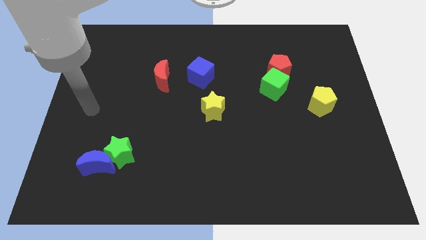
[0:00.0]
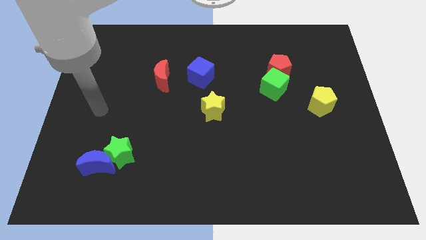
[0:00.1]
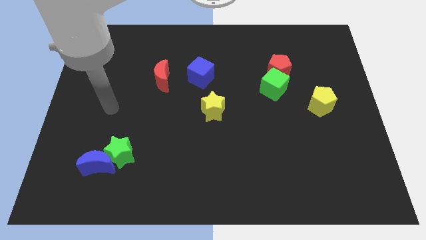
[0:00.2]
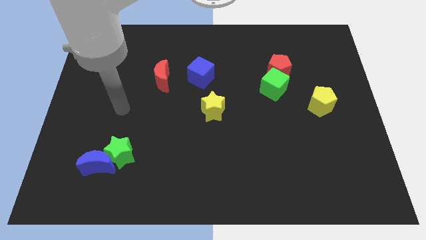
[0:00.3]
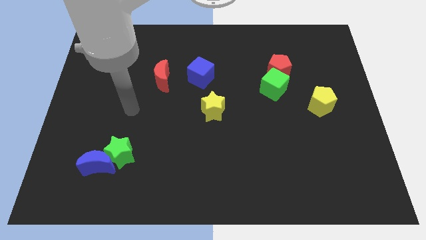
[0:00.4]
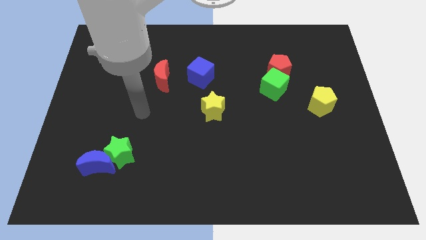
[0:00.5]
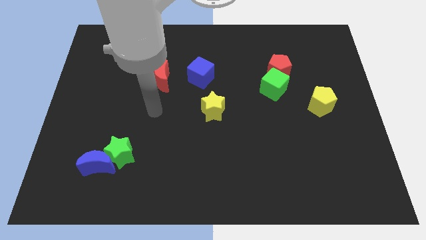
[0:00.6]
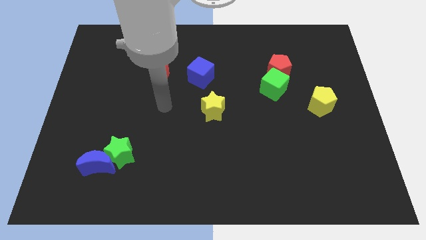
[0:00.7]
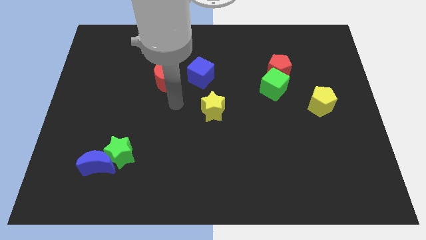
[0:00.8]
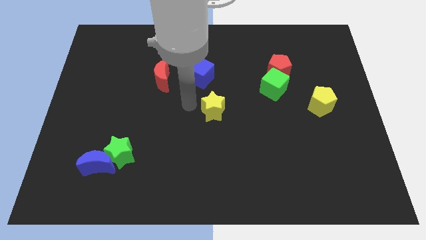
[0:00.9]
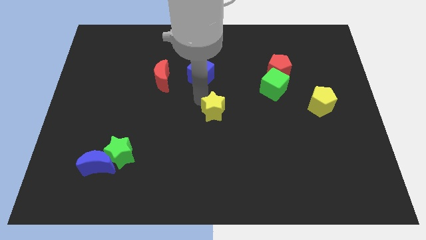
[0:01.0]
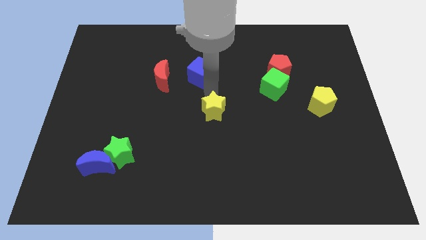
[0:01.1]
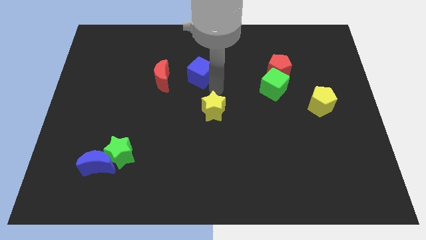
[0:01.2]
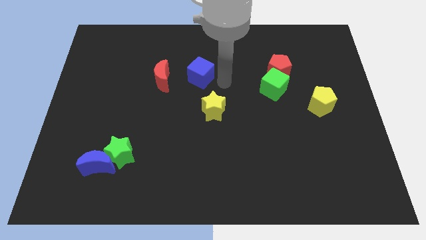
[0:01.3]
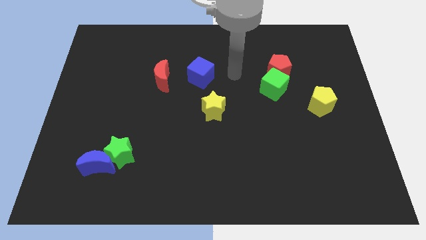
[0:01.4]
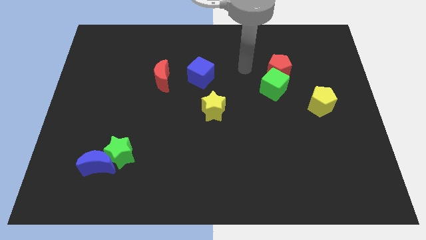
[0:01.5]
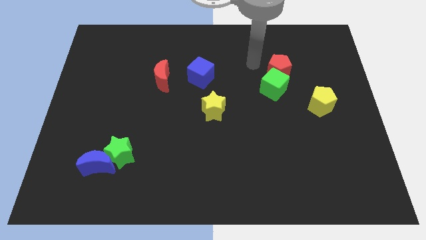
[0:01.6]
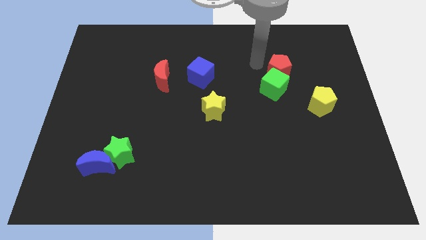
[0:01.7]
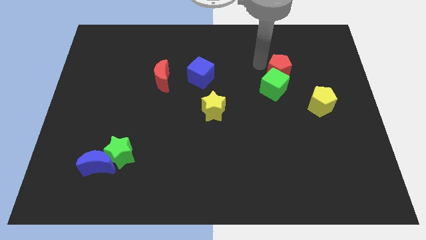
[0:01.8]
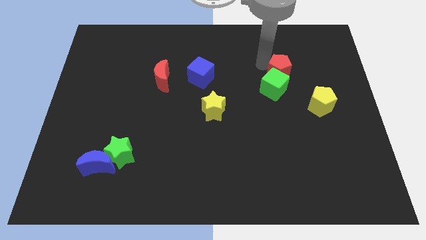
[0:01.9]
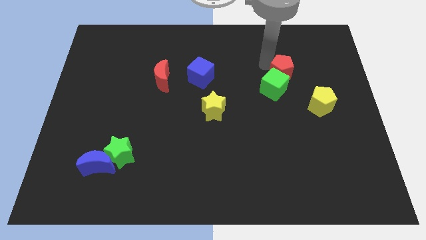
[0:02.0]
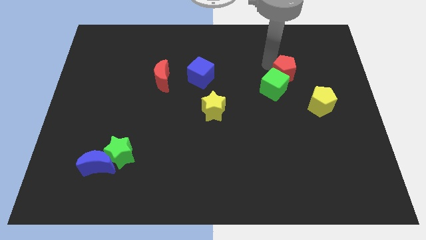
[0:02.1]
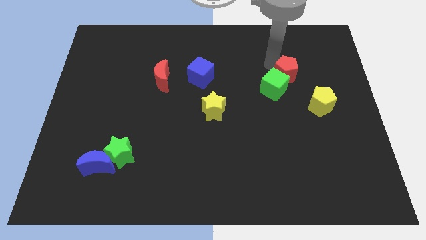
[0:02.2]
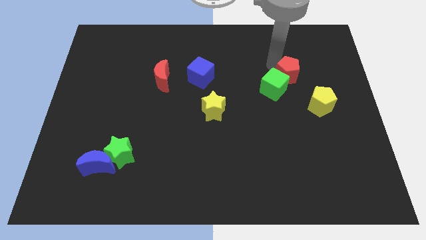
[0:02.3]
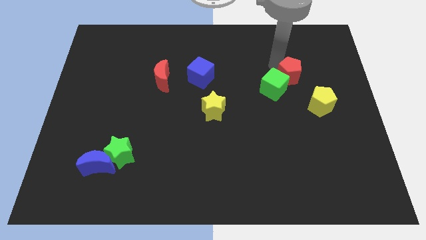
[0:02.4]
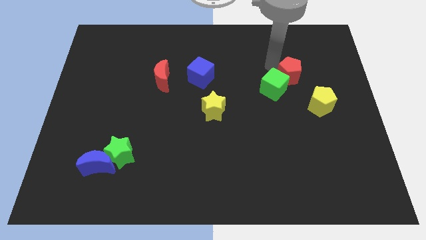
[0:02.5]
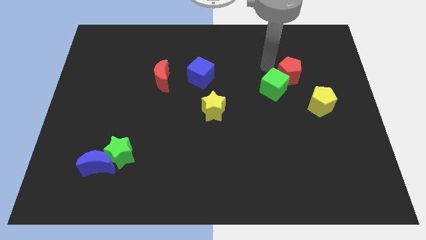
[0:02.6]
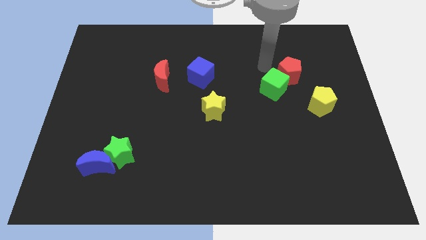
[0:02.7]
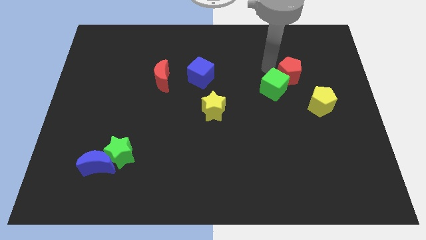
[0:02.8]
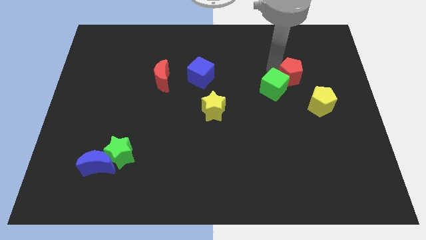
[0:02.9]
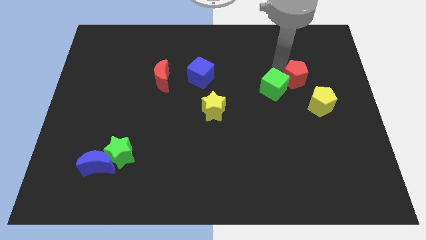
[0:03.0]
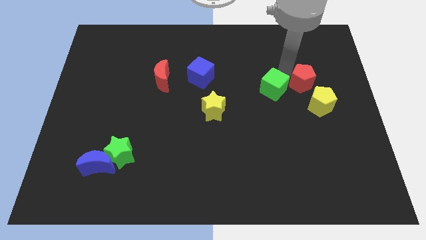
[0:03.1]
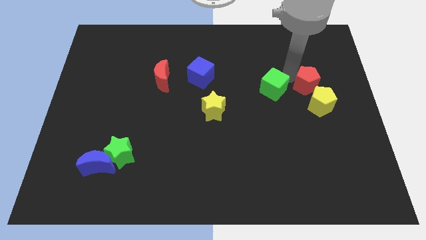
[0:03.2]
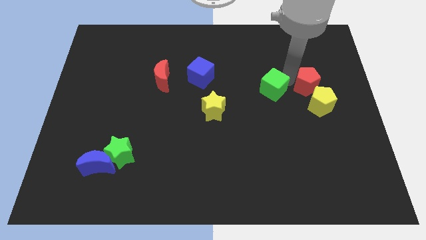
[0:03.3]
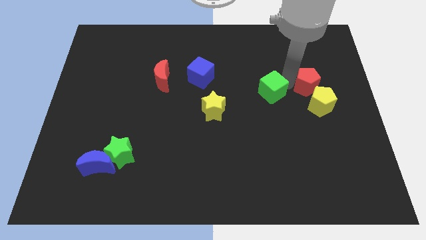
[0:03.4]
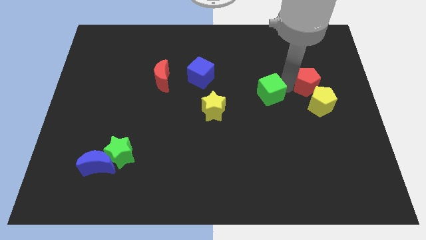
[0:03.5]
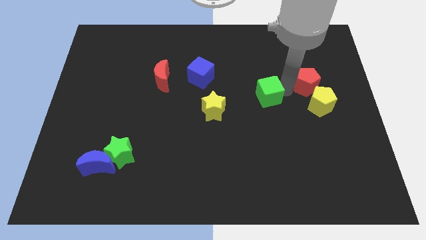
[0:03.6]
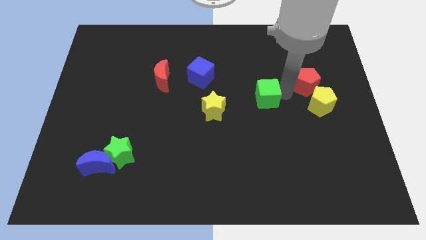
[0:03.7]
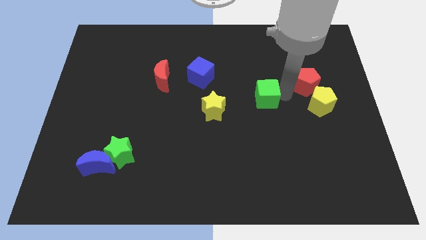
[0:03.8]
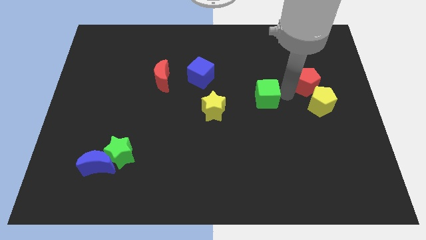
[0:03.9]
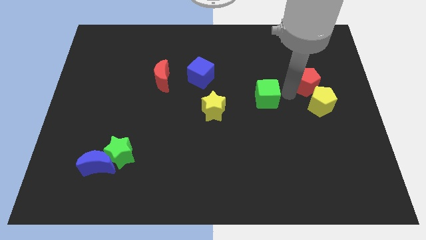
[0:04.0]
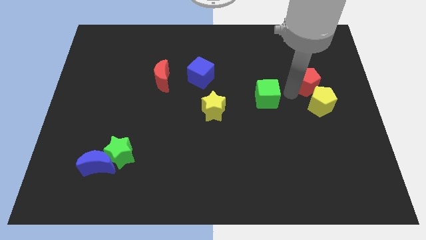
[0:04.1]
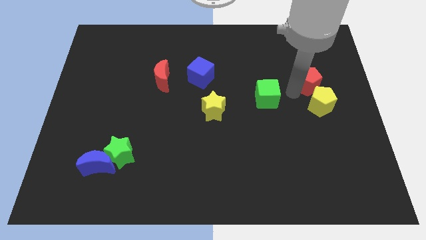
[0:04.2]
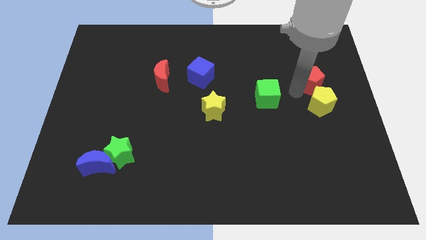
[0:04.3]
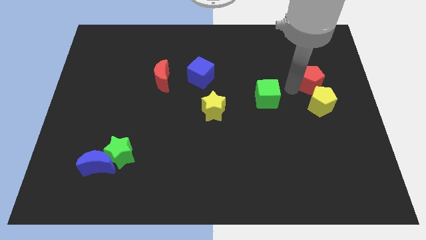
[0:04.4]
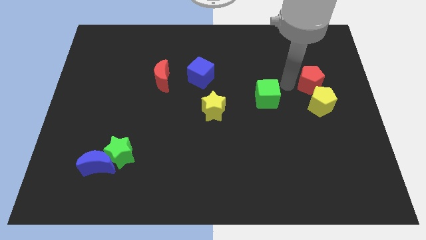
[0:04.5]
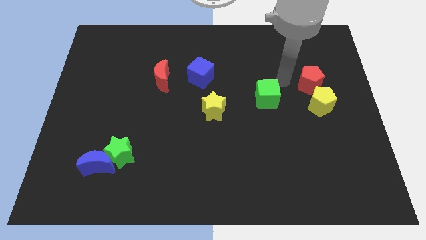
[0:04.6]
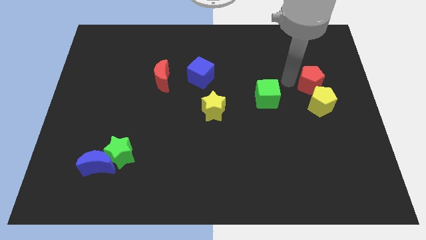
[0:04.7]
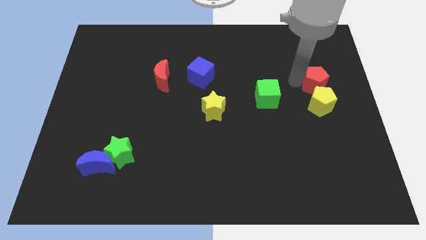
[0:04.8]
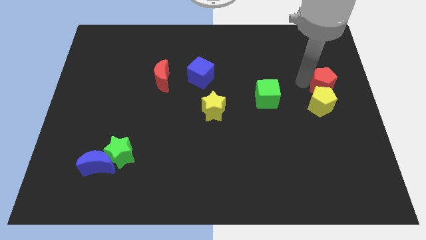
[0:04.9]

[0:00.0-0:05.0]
push the red pentagon to the center right

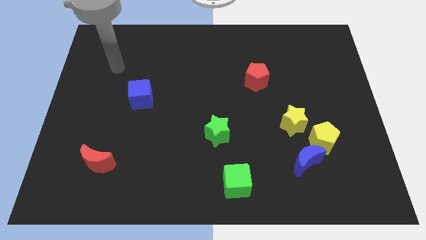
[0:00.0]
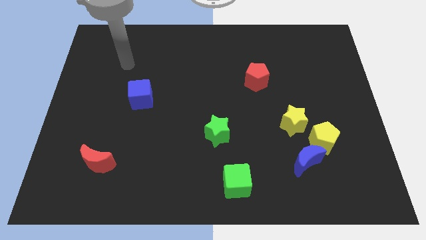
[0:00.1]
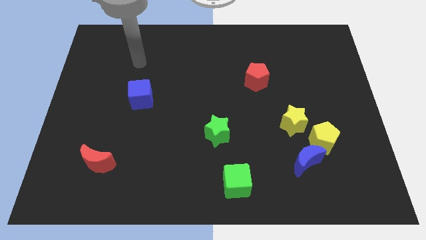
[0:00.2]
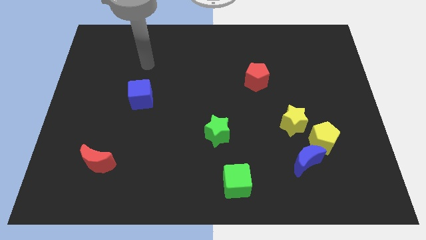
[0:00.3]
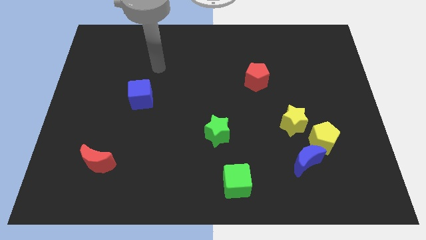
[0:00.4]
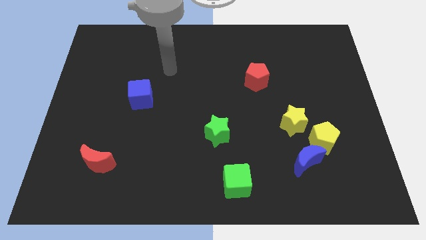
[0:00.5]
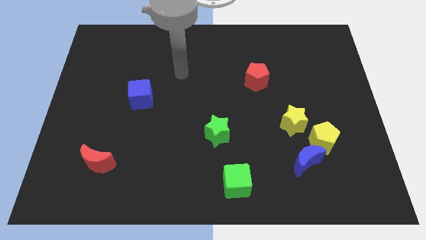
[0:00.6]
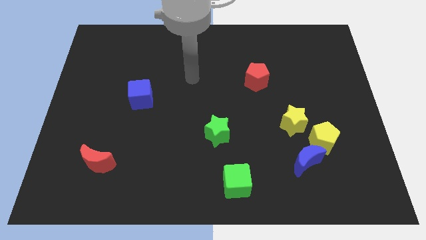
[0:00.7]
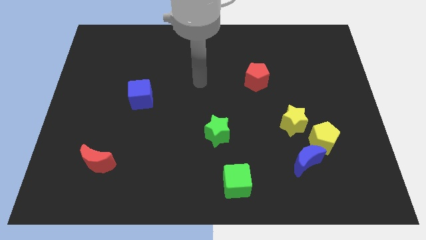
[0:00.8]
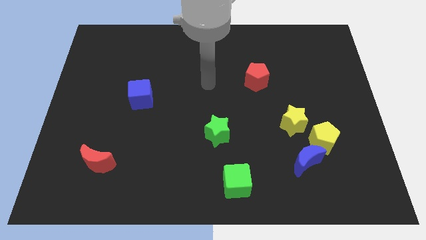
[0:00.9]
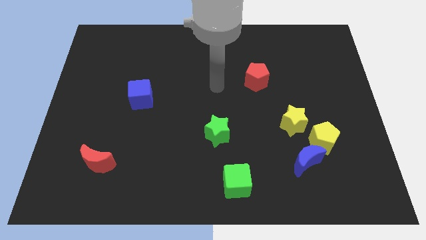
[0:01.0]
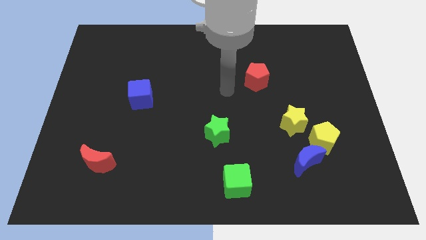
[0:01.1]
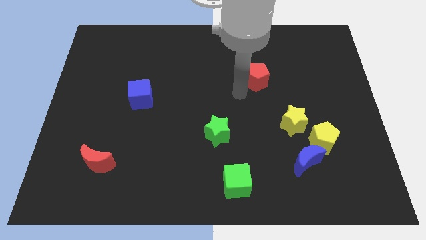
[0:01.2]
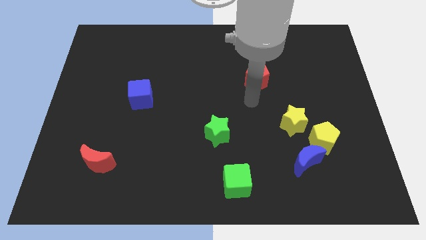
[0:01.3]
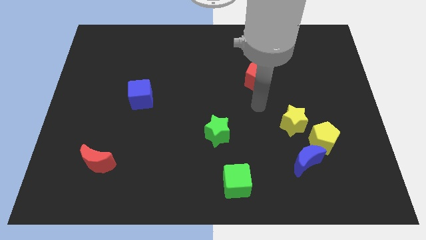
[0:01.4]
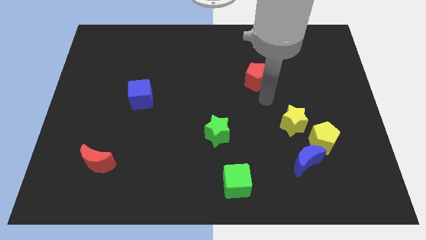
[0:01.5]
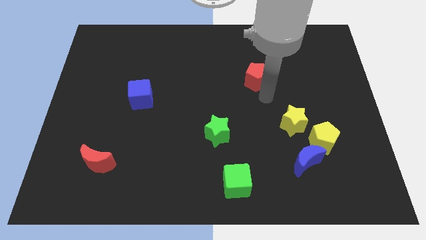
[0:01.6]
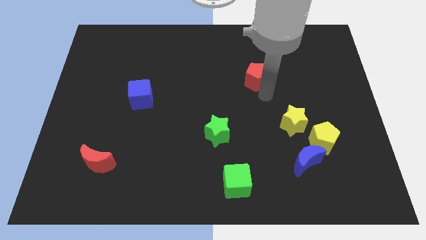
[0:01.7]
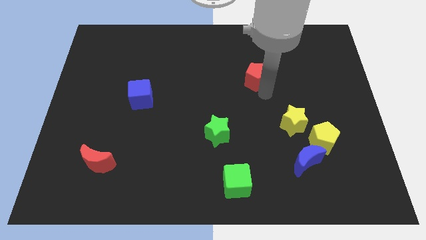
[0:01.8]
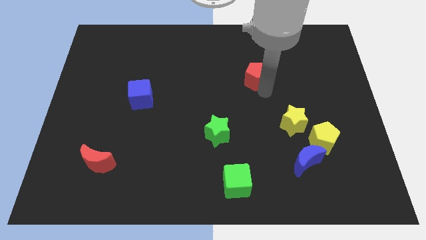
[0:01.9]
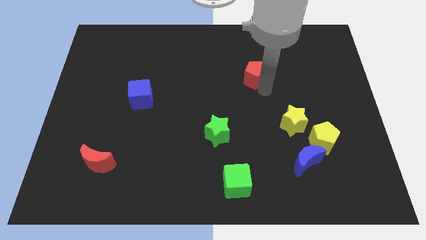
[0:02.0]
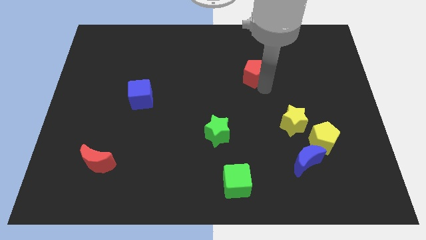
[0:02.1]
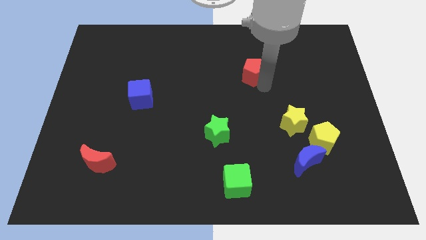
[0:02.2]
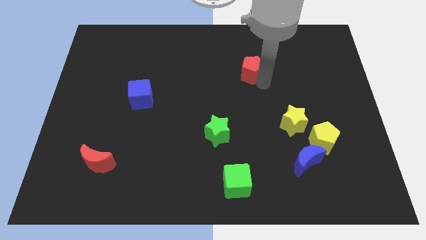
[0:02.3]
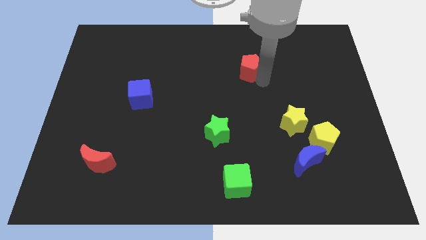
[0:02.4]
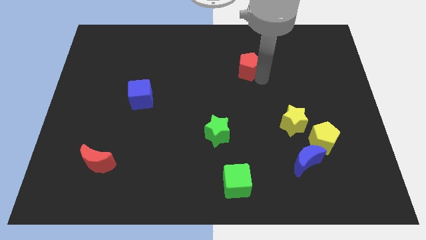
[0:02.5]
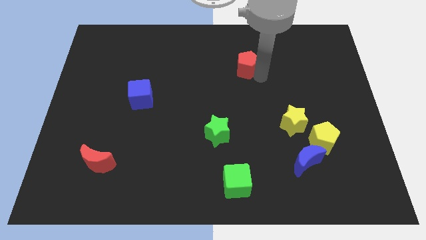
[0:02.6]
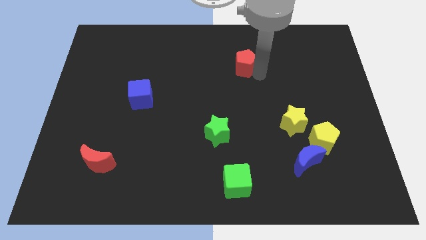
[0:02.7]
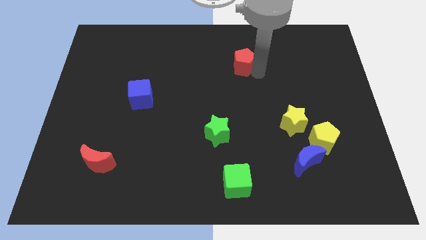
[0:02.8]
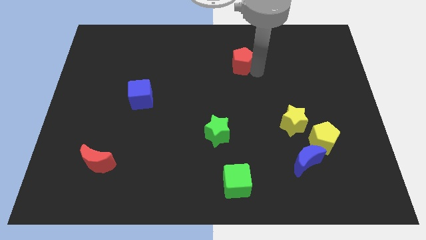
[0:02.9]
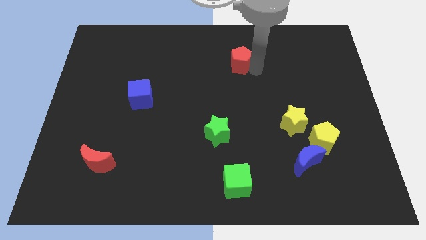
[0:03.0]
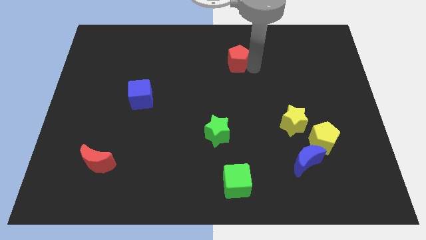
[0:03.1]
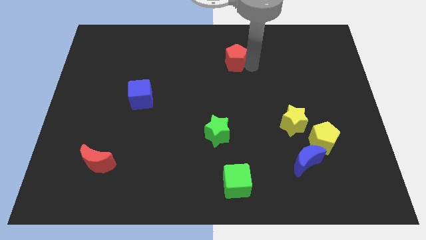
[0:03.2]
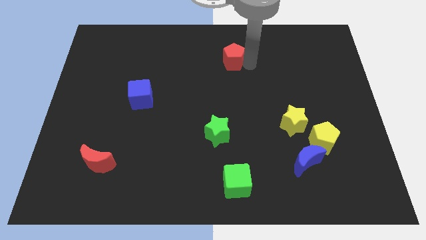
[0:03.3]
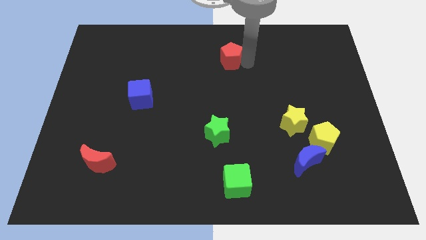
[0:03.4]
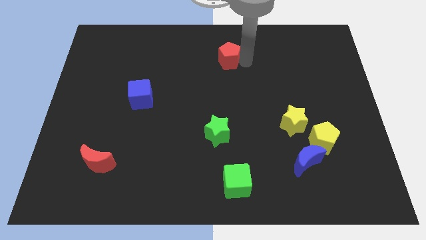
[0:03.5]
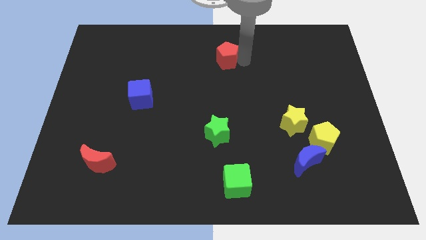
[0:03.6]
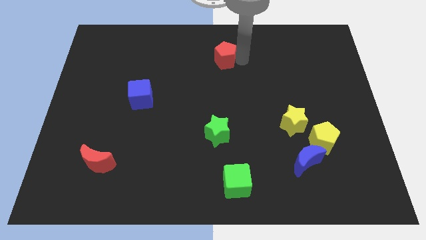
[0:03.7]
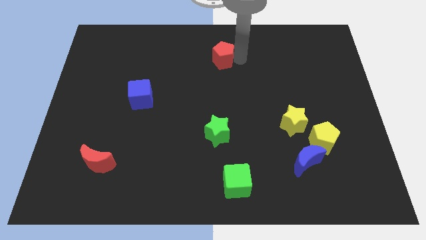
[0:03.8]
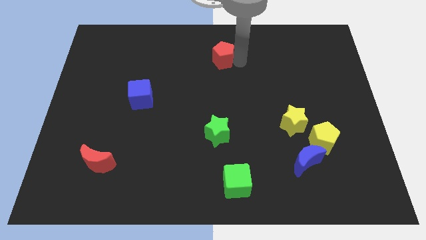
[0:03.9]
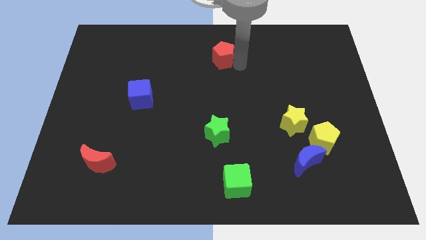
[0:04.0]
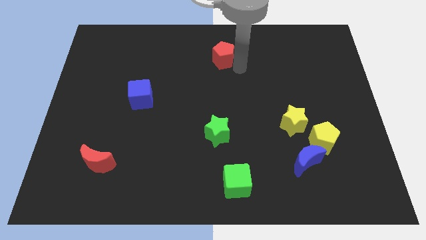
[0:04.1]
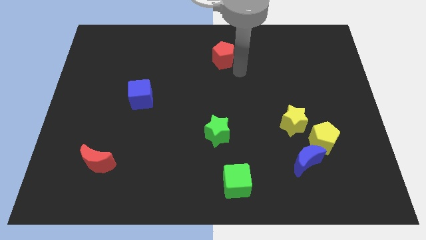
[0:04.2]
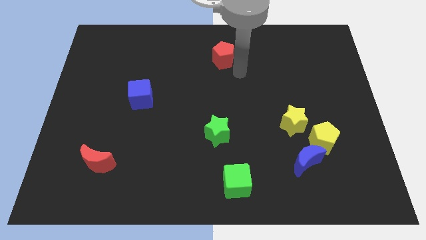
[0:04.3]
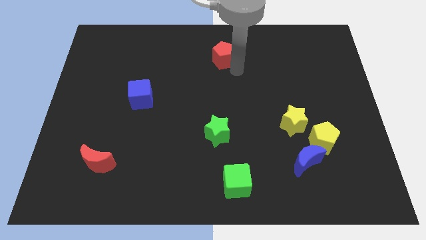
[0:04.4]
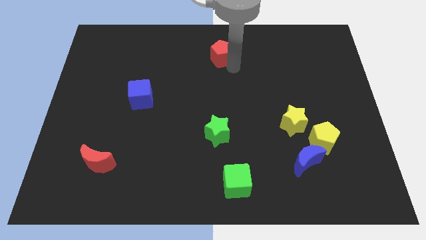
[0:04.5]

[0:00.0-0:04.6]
slide the red pentagon to the top
